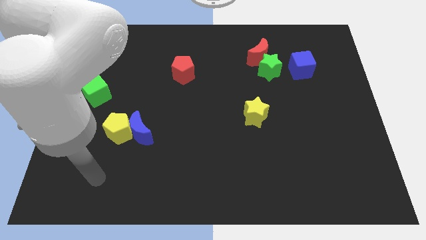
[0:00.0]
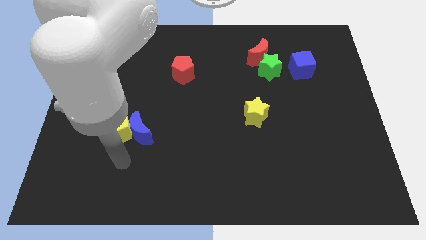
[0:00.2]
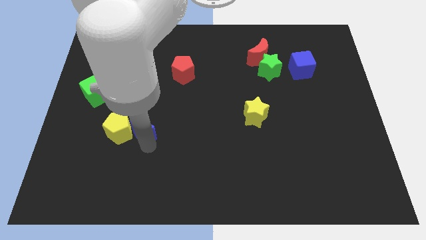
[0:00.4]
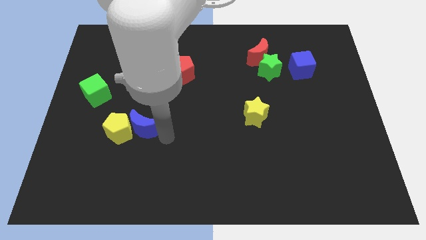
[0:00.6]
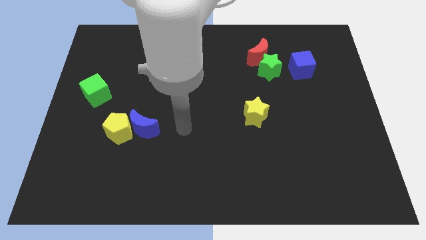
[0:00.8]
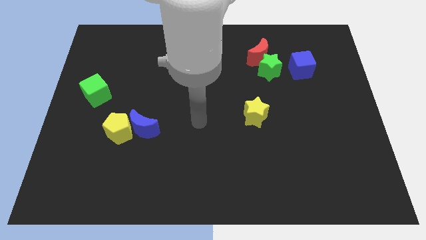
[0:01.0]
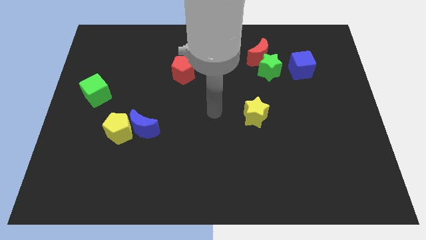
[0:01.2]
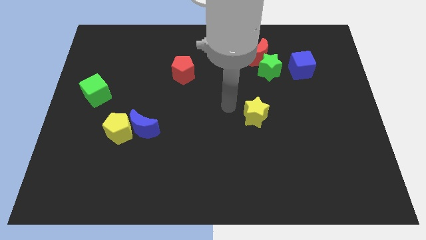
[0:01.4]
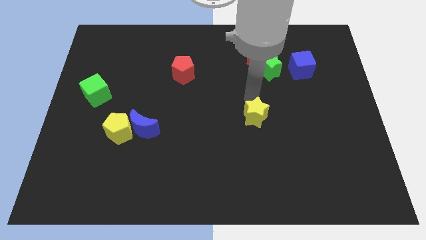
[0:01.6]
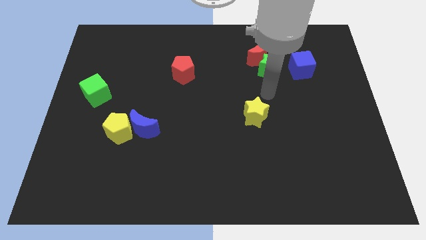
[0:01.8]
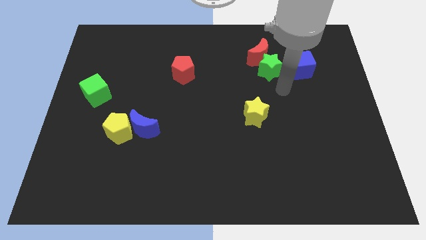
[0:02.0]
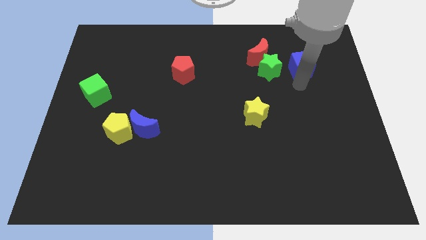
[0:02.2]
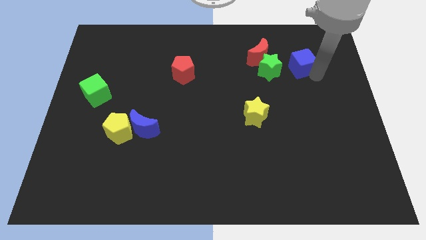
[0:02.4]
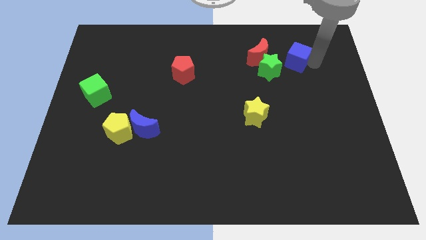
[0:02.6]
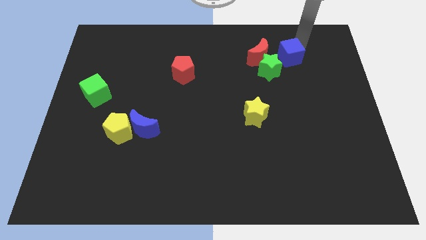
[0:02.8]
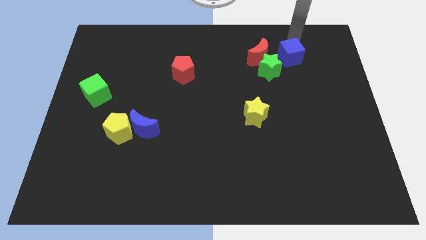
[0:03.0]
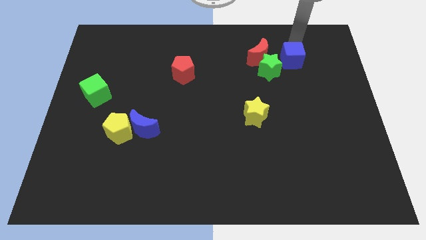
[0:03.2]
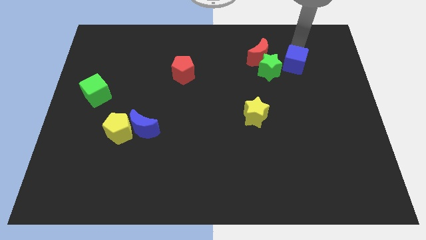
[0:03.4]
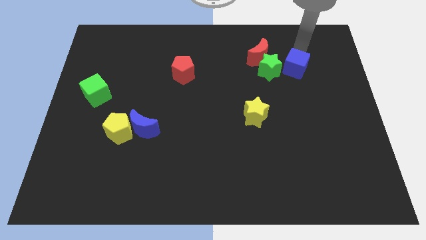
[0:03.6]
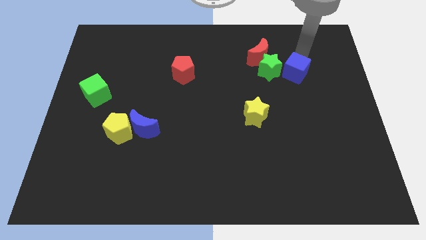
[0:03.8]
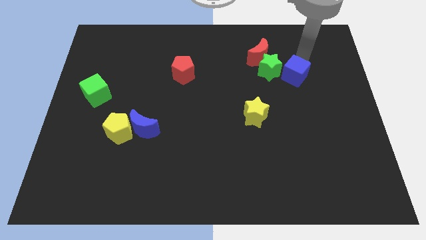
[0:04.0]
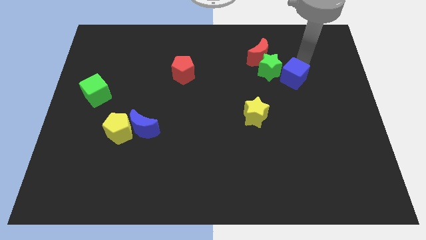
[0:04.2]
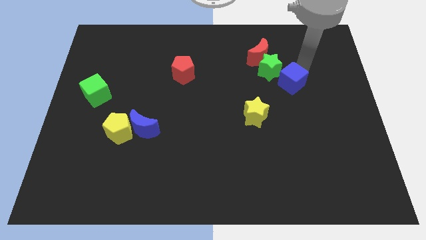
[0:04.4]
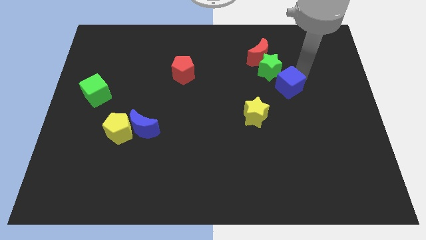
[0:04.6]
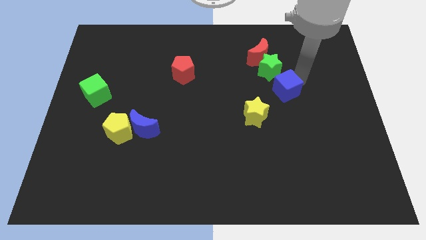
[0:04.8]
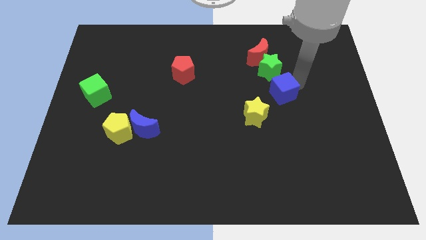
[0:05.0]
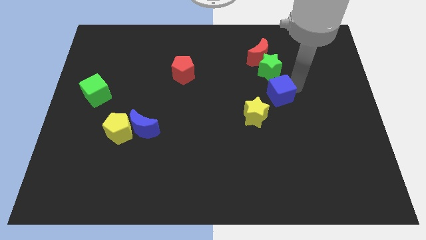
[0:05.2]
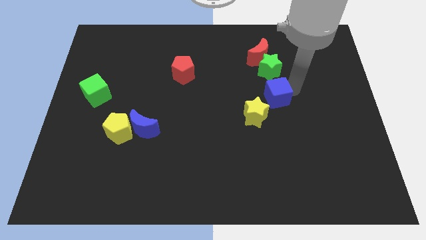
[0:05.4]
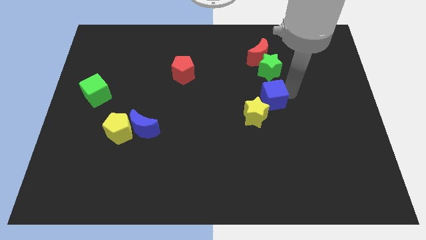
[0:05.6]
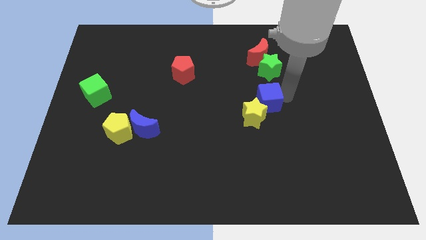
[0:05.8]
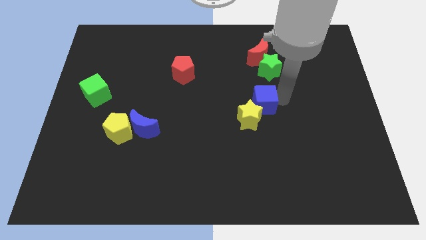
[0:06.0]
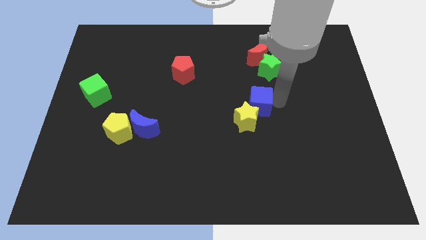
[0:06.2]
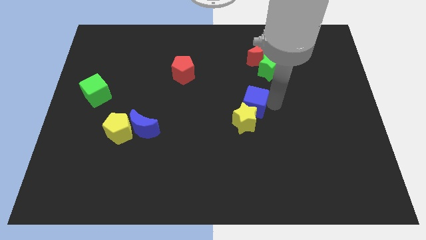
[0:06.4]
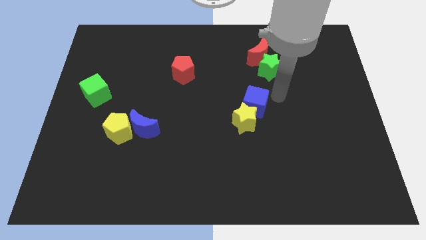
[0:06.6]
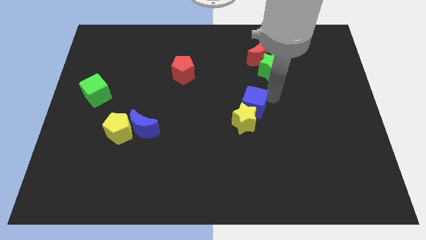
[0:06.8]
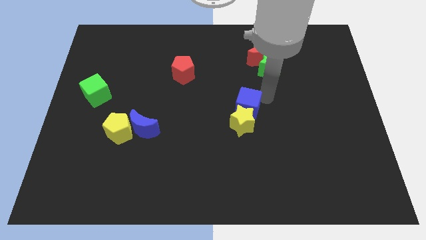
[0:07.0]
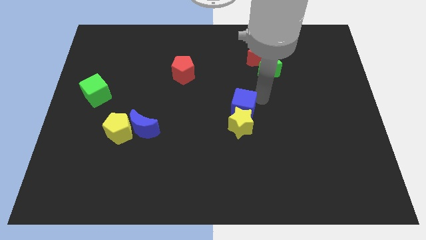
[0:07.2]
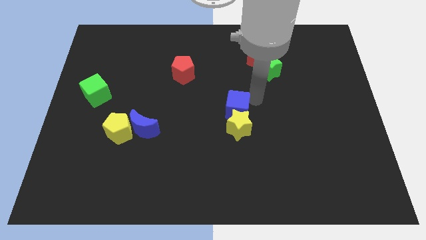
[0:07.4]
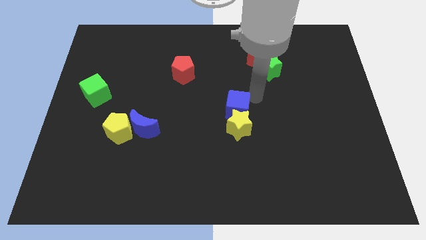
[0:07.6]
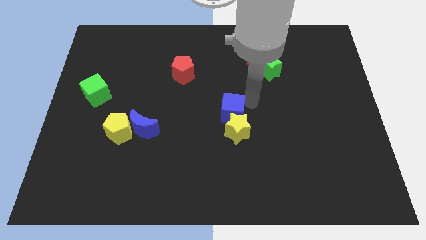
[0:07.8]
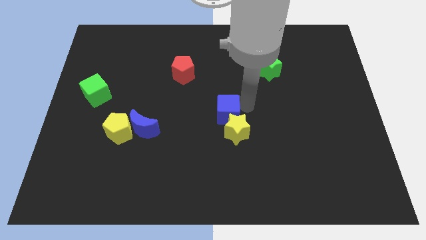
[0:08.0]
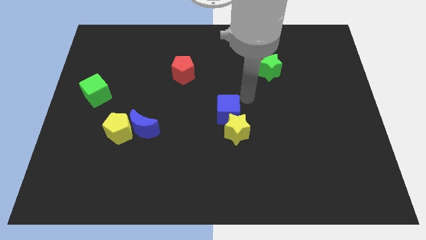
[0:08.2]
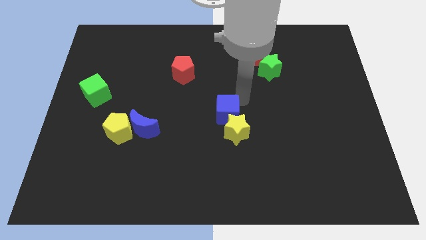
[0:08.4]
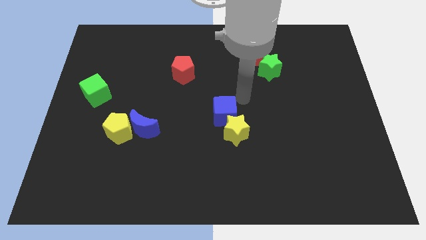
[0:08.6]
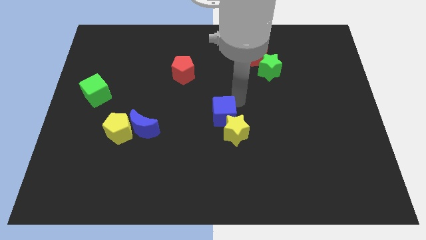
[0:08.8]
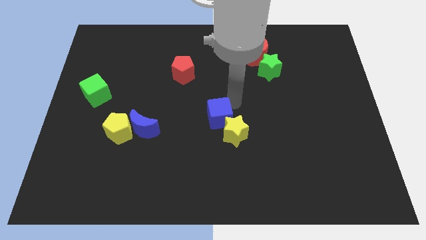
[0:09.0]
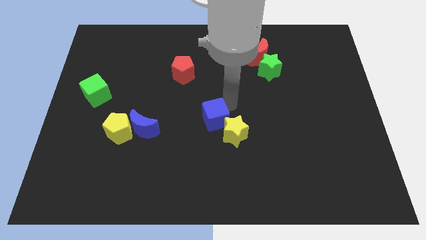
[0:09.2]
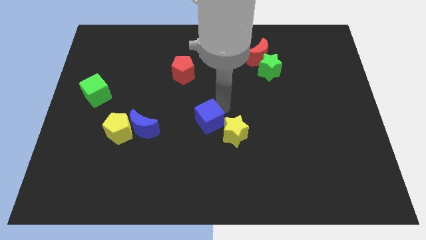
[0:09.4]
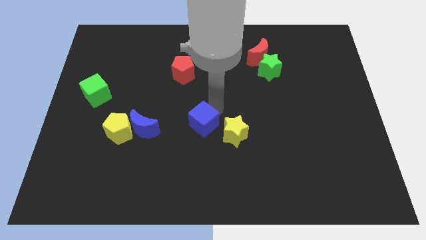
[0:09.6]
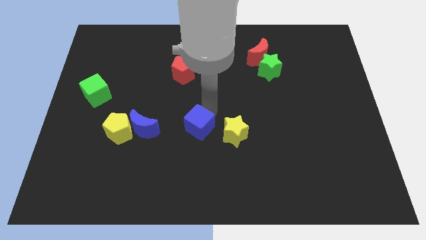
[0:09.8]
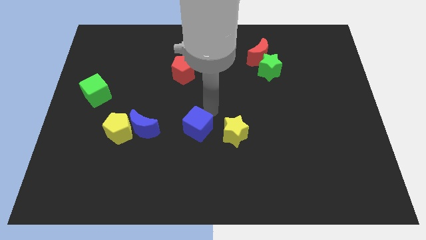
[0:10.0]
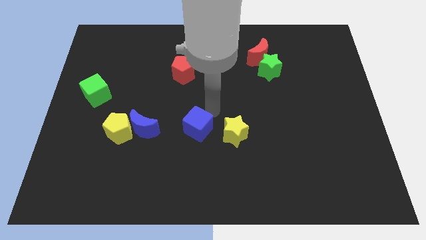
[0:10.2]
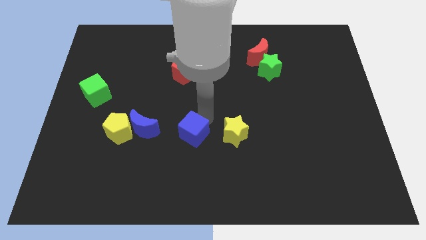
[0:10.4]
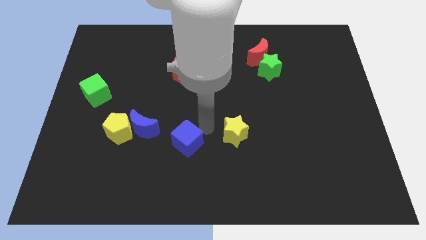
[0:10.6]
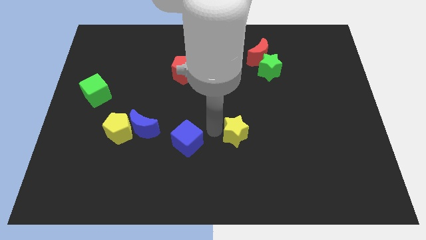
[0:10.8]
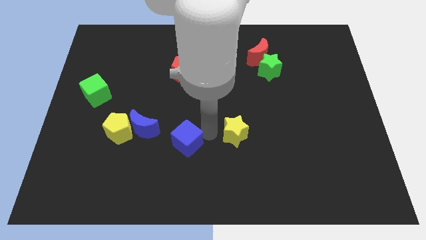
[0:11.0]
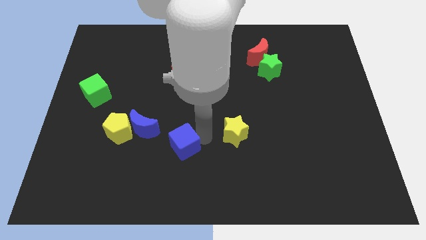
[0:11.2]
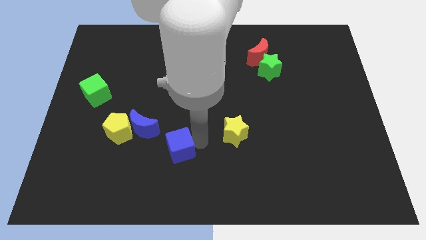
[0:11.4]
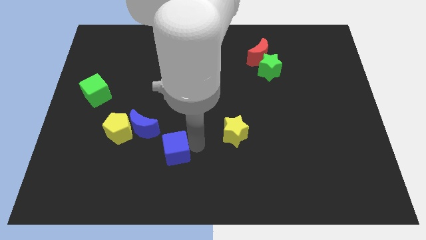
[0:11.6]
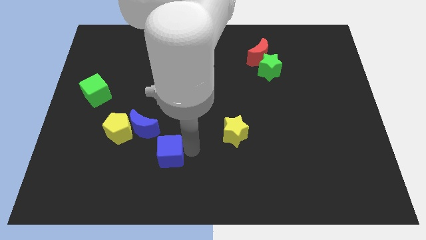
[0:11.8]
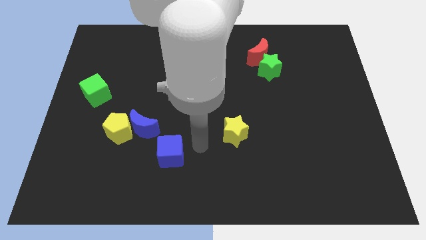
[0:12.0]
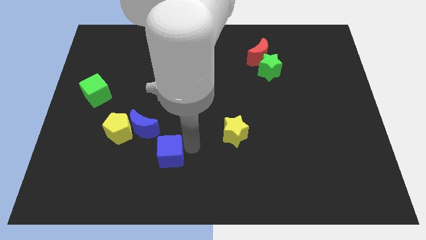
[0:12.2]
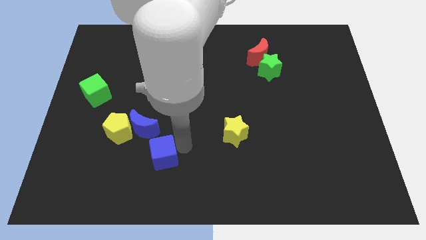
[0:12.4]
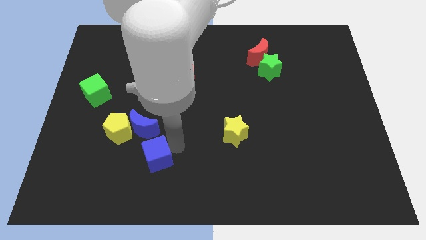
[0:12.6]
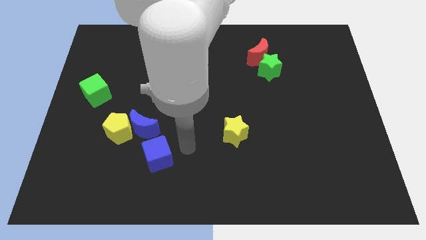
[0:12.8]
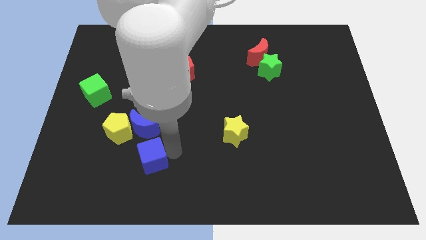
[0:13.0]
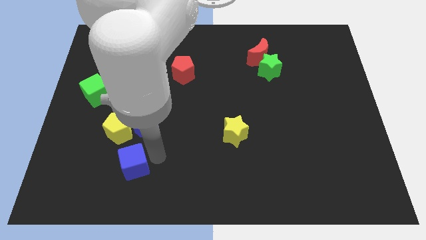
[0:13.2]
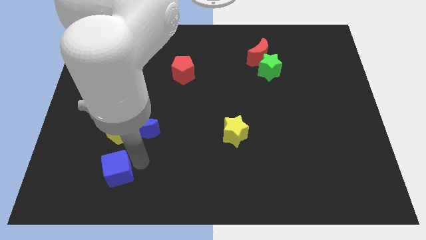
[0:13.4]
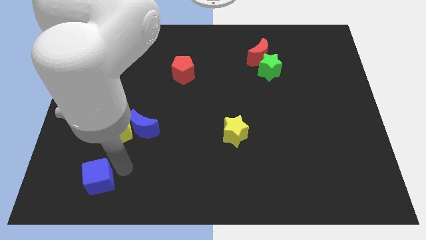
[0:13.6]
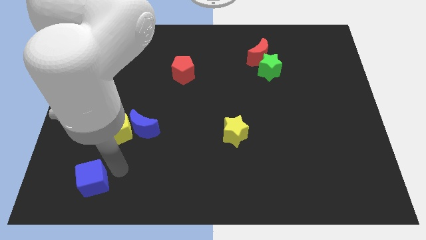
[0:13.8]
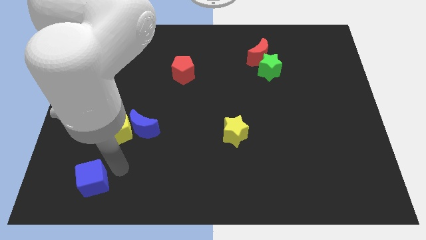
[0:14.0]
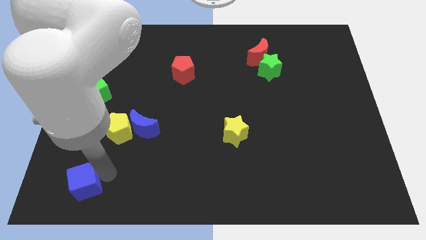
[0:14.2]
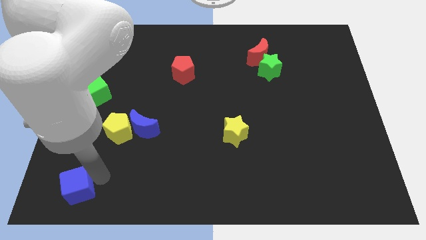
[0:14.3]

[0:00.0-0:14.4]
push the blue cube to the lower left corner
